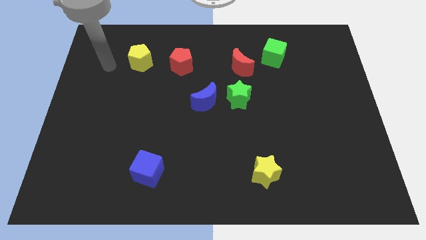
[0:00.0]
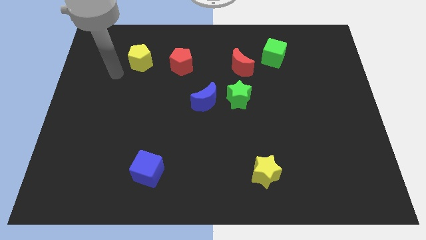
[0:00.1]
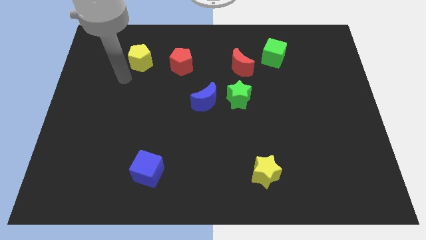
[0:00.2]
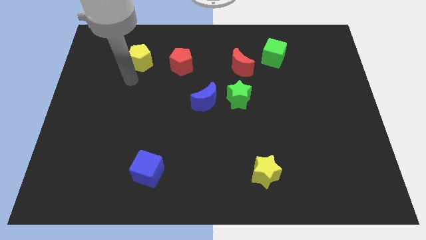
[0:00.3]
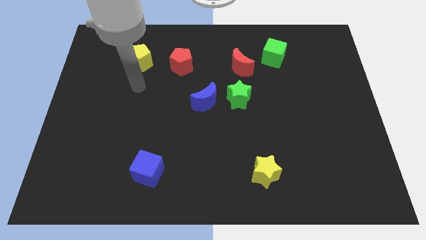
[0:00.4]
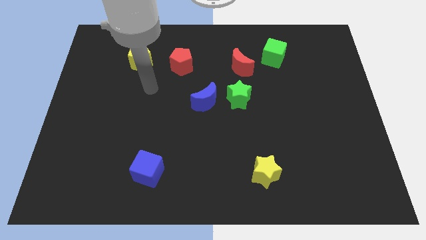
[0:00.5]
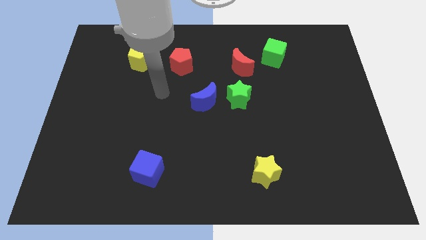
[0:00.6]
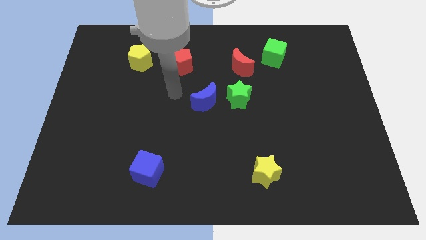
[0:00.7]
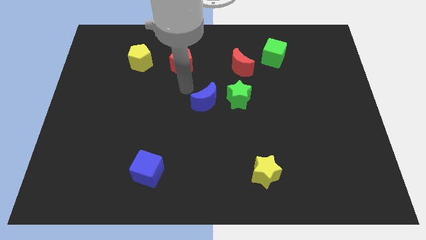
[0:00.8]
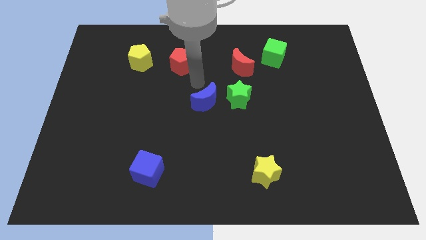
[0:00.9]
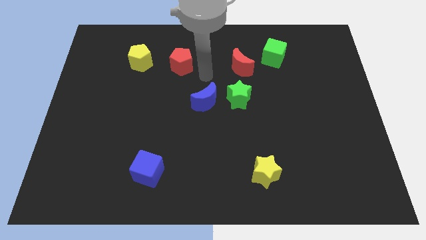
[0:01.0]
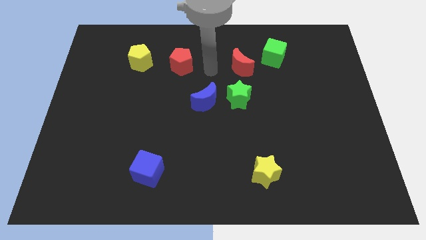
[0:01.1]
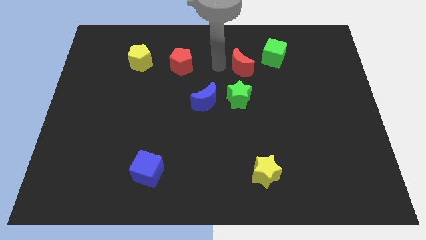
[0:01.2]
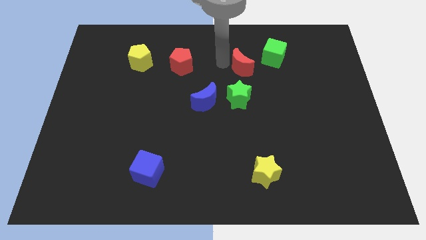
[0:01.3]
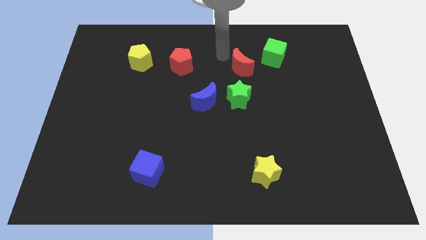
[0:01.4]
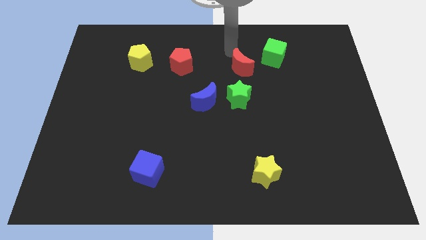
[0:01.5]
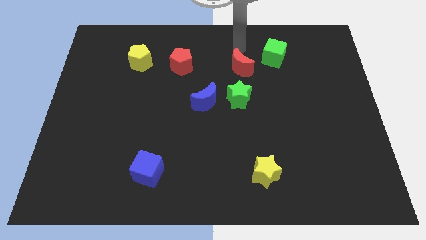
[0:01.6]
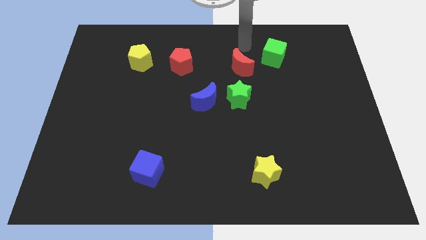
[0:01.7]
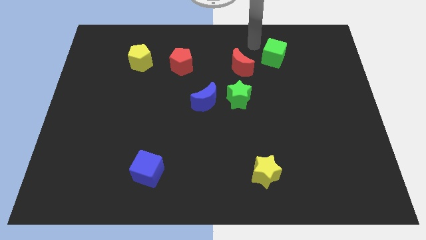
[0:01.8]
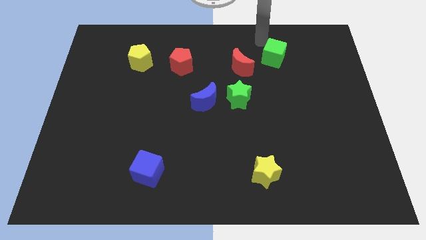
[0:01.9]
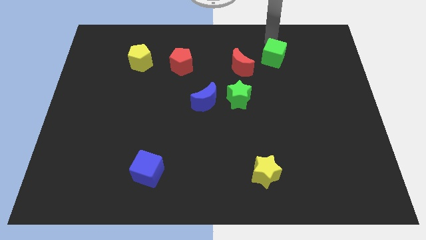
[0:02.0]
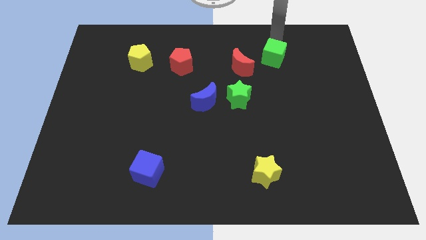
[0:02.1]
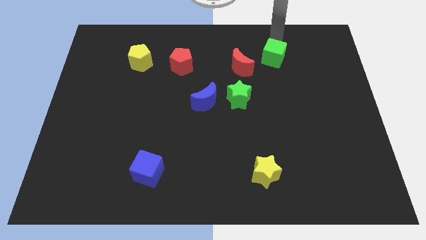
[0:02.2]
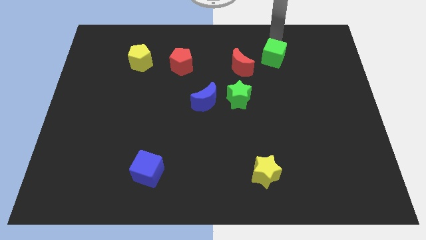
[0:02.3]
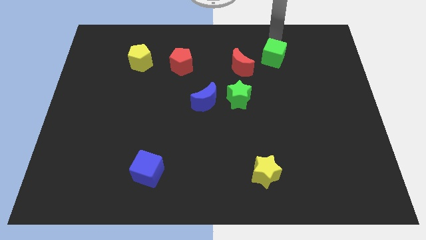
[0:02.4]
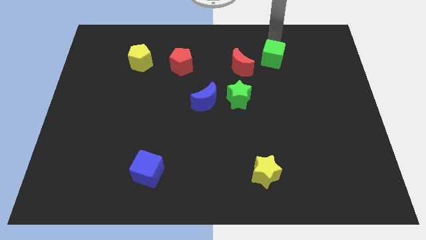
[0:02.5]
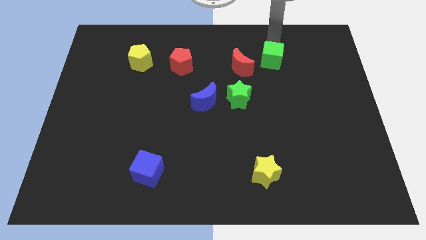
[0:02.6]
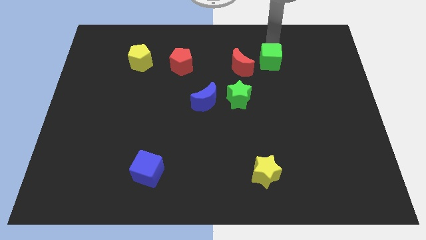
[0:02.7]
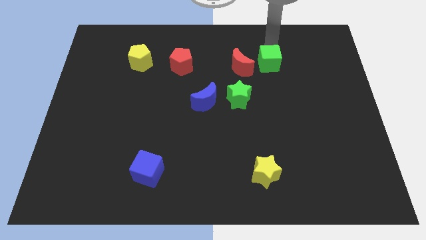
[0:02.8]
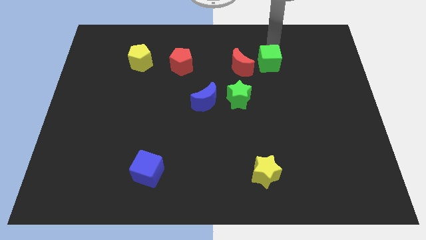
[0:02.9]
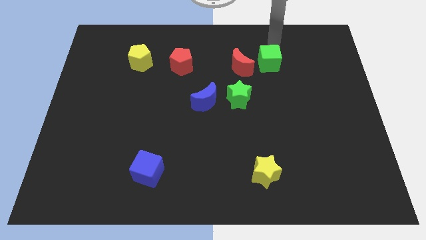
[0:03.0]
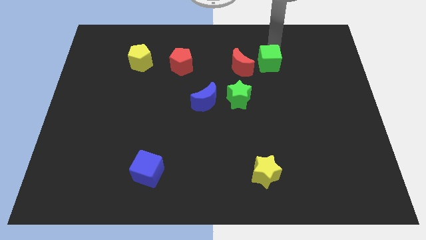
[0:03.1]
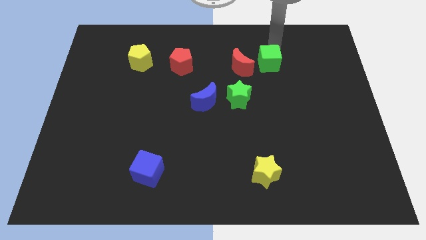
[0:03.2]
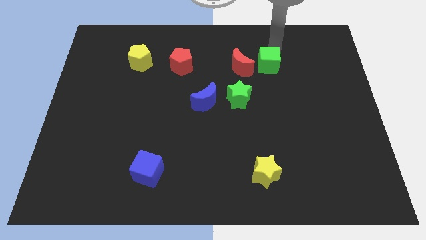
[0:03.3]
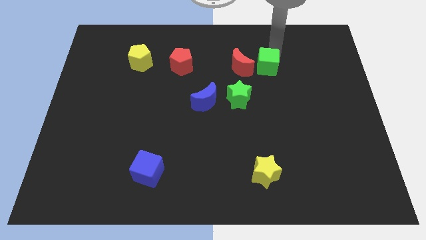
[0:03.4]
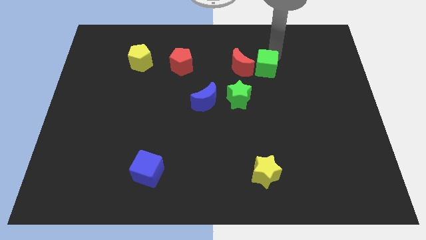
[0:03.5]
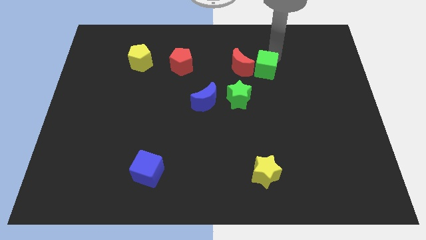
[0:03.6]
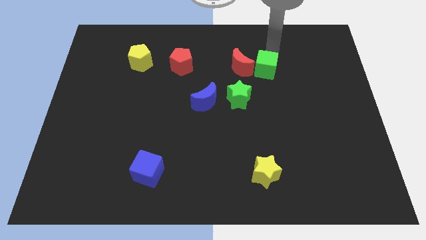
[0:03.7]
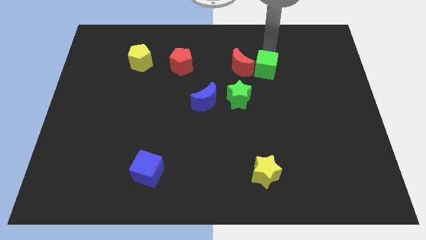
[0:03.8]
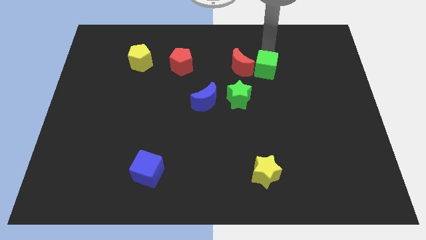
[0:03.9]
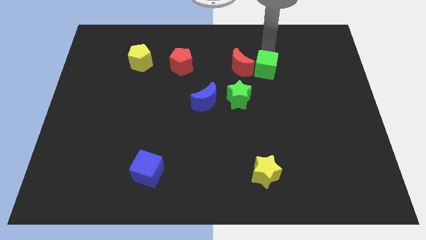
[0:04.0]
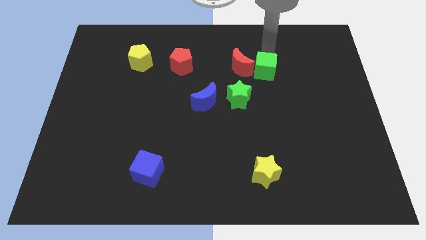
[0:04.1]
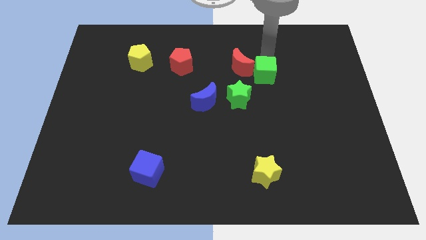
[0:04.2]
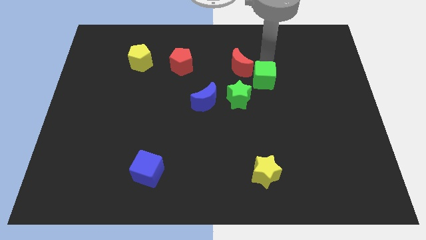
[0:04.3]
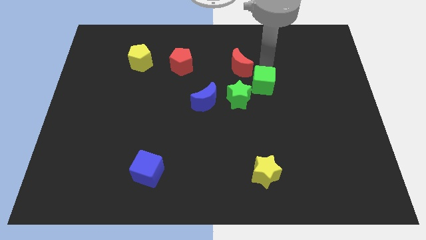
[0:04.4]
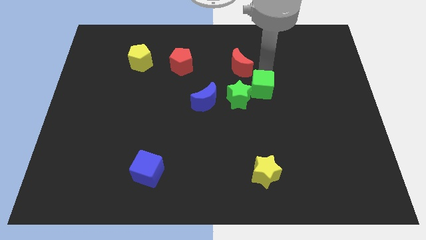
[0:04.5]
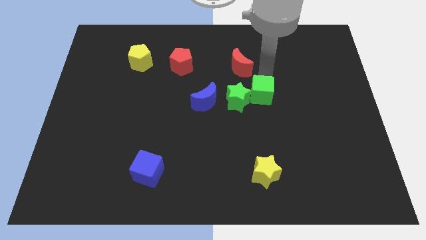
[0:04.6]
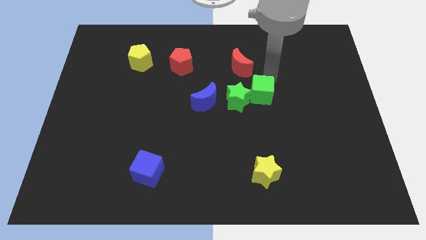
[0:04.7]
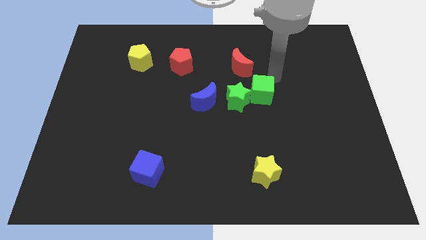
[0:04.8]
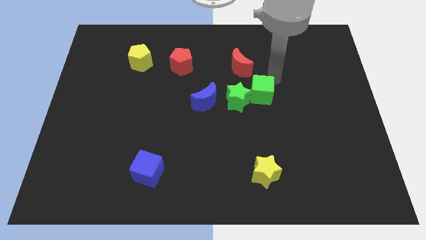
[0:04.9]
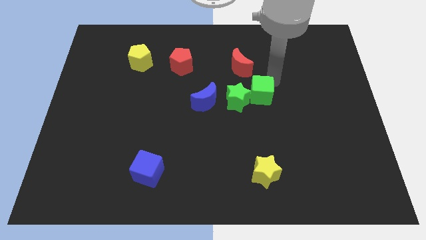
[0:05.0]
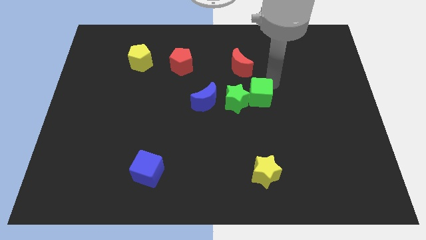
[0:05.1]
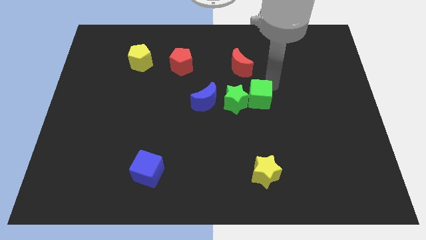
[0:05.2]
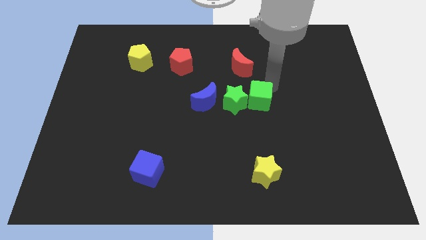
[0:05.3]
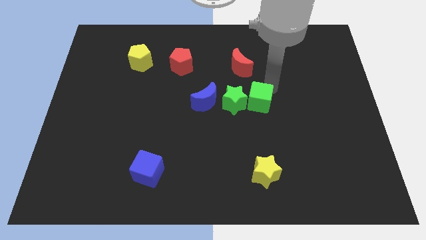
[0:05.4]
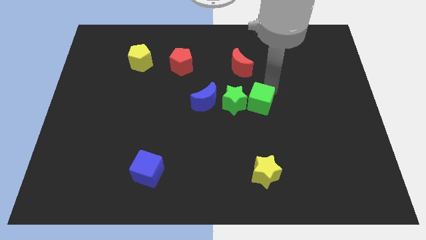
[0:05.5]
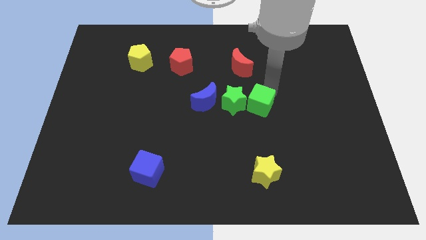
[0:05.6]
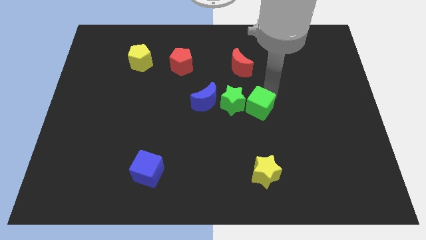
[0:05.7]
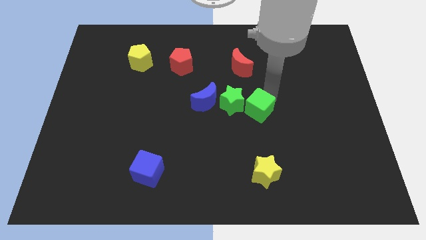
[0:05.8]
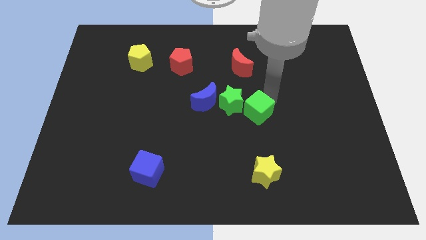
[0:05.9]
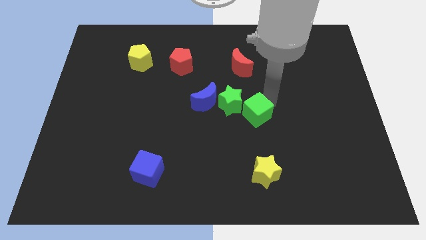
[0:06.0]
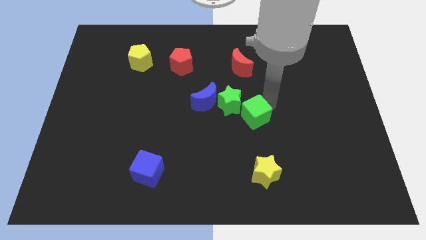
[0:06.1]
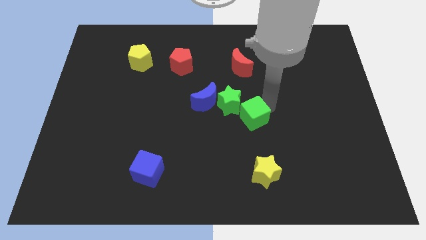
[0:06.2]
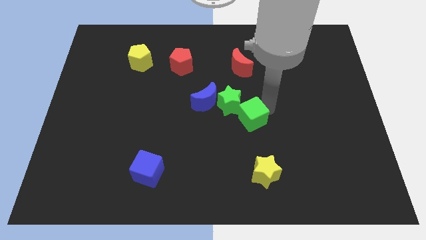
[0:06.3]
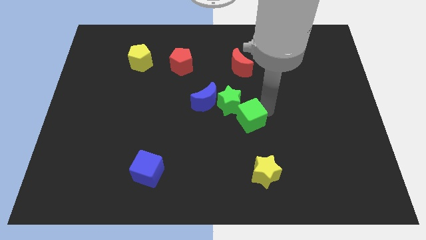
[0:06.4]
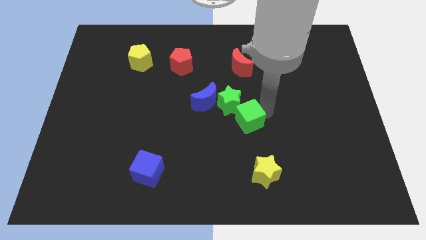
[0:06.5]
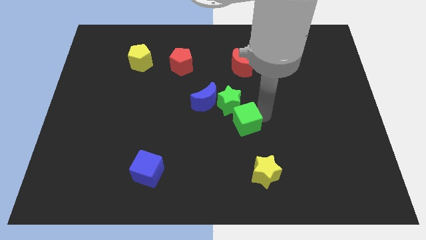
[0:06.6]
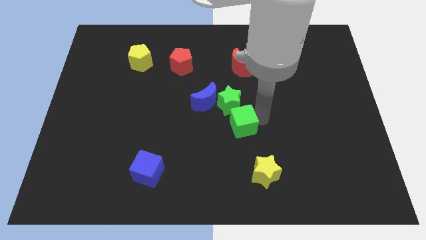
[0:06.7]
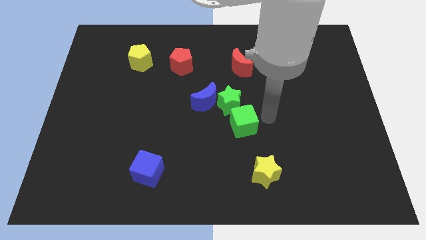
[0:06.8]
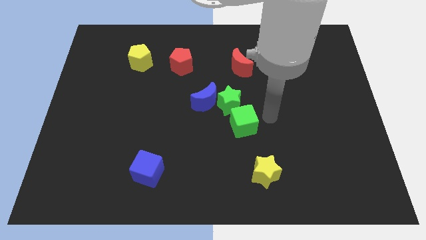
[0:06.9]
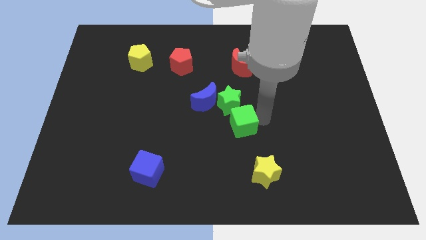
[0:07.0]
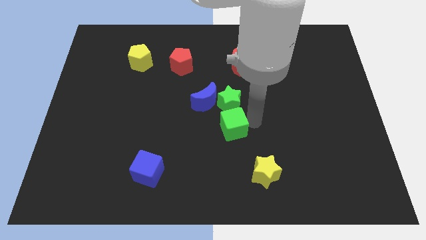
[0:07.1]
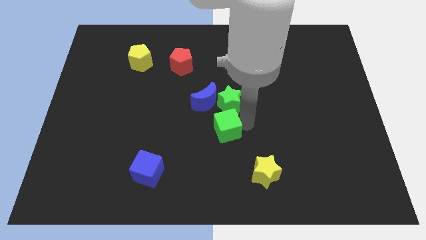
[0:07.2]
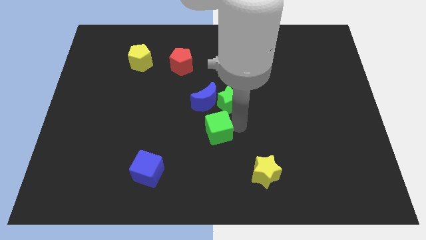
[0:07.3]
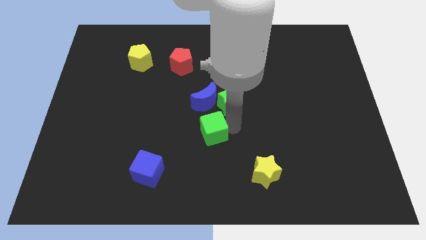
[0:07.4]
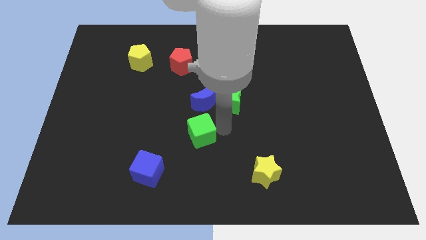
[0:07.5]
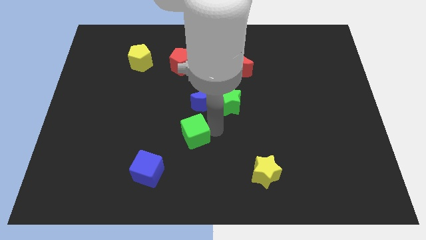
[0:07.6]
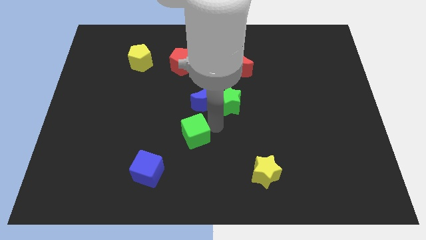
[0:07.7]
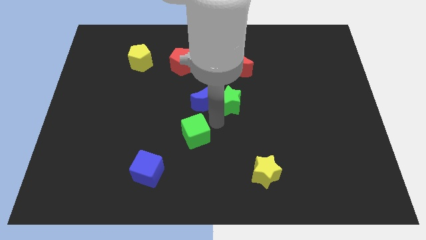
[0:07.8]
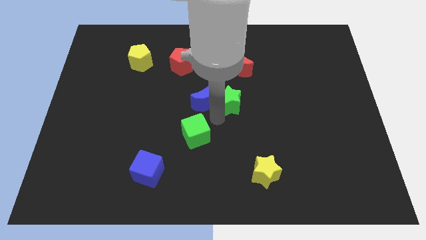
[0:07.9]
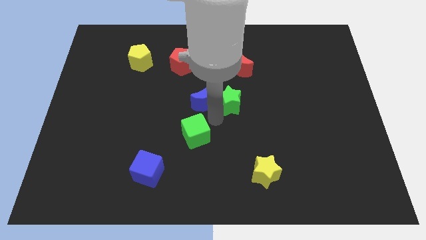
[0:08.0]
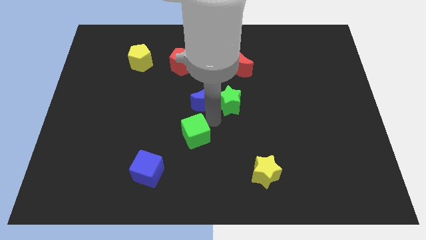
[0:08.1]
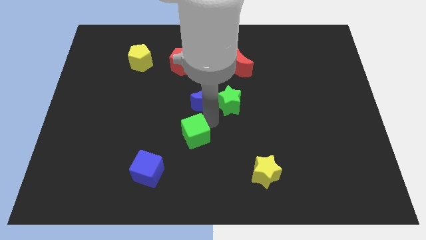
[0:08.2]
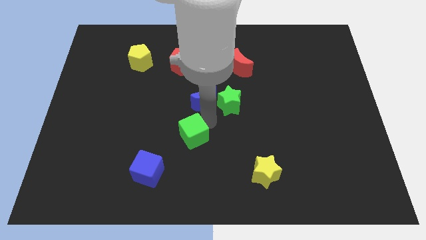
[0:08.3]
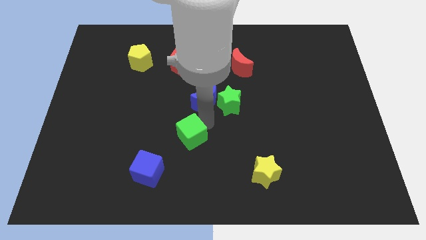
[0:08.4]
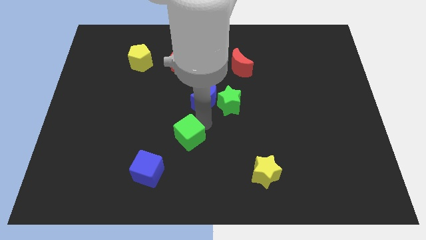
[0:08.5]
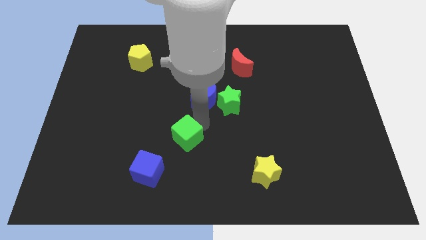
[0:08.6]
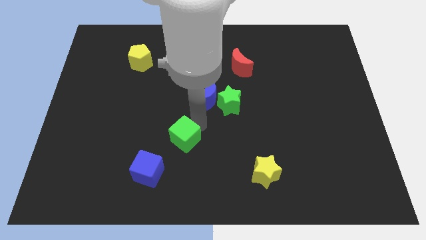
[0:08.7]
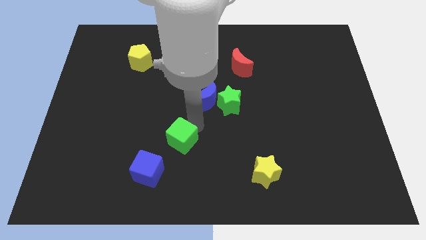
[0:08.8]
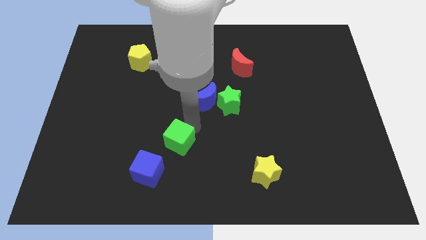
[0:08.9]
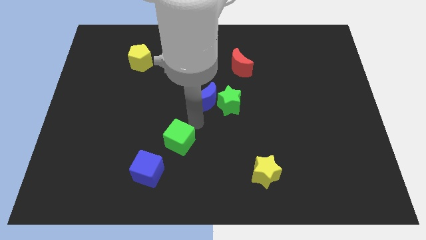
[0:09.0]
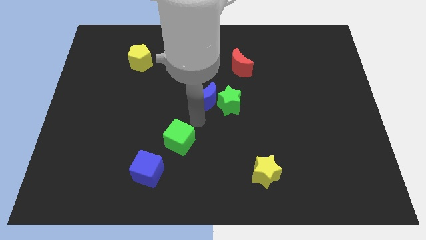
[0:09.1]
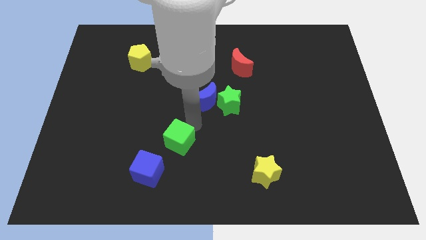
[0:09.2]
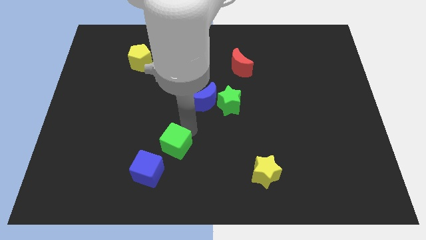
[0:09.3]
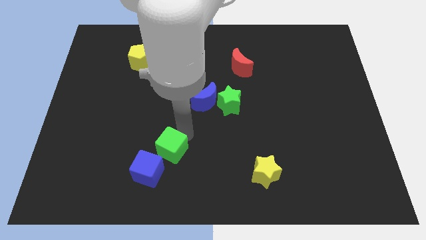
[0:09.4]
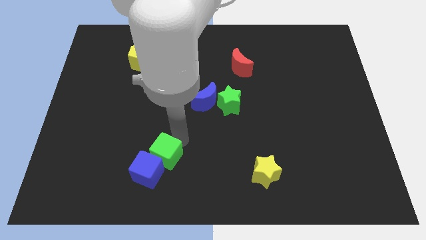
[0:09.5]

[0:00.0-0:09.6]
slide the green cube towards the blue cube
